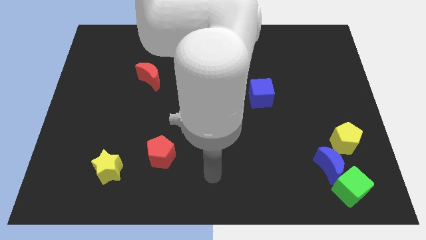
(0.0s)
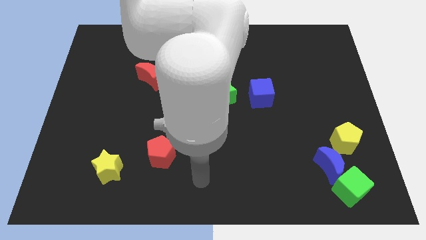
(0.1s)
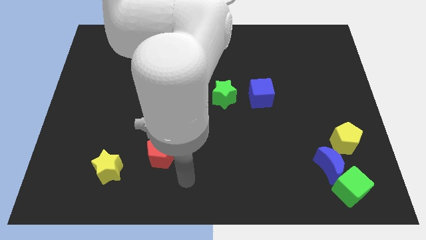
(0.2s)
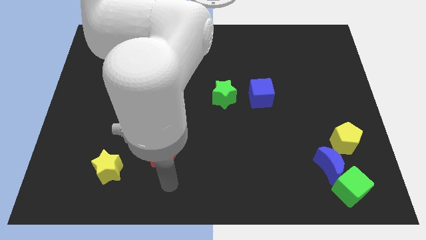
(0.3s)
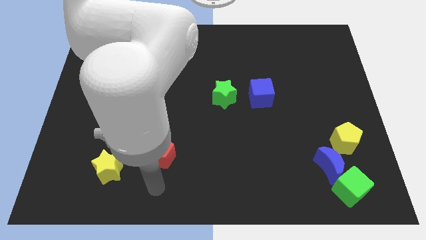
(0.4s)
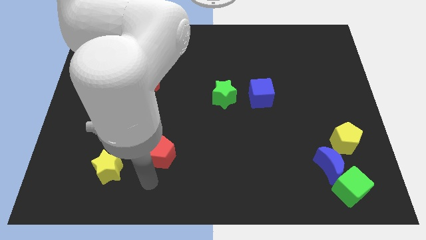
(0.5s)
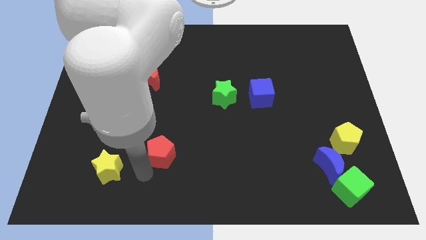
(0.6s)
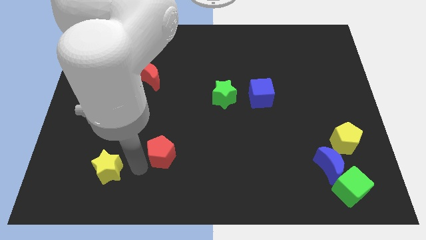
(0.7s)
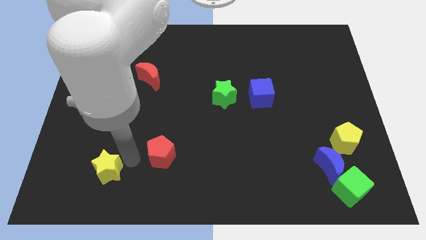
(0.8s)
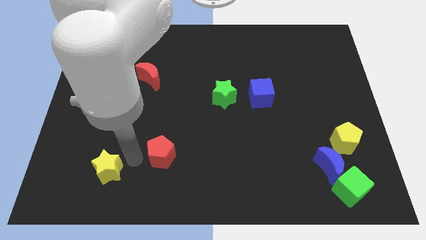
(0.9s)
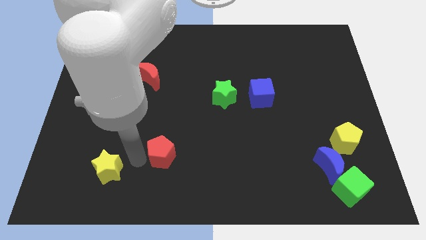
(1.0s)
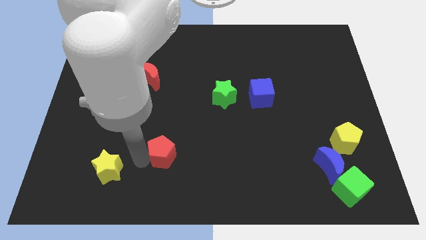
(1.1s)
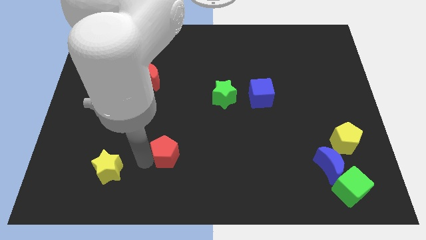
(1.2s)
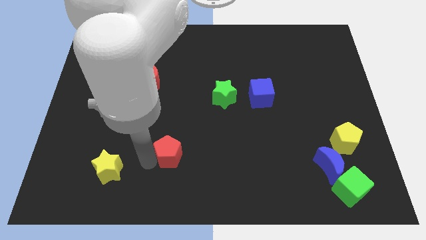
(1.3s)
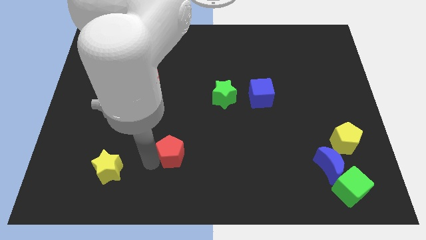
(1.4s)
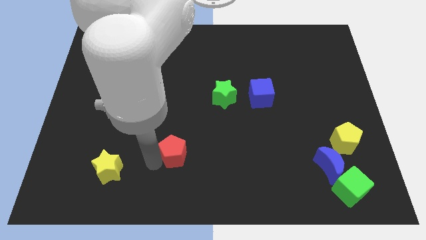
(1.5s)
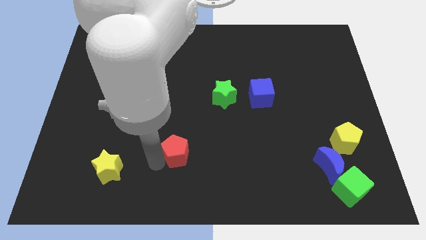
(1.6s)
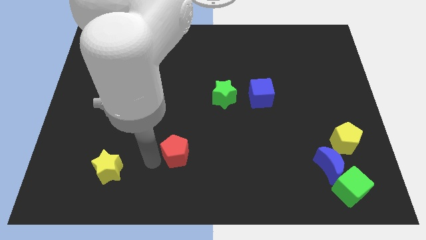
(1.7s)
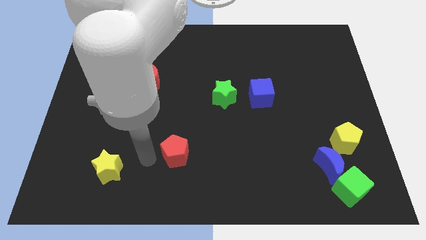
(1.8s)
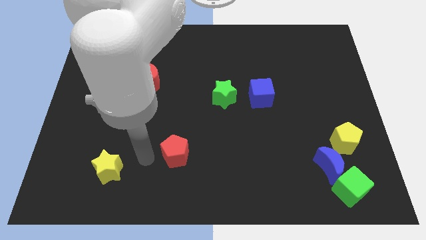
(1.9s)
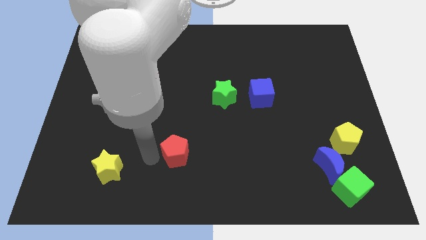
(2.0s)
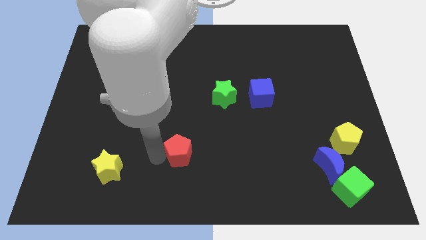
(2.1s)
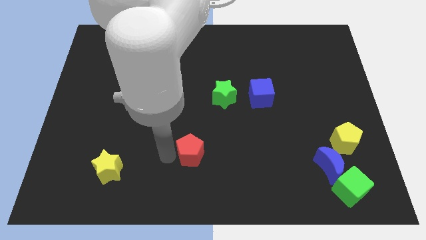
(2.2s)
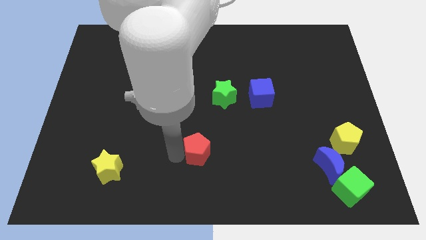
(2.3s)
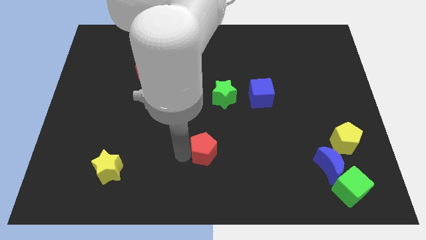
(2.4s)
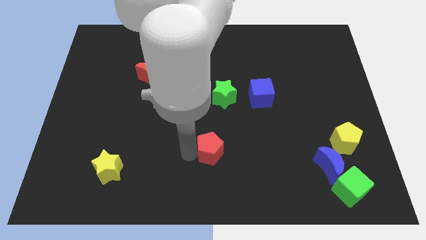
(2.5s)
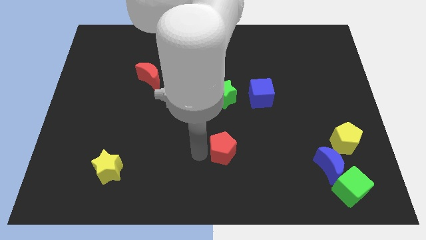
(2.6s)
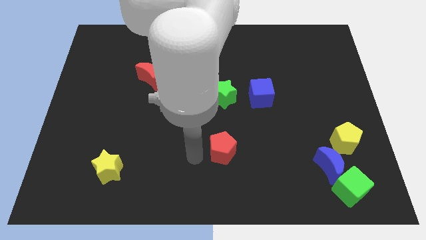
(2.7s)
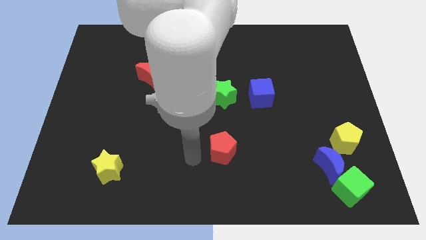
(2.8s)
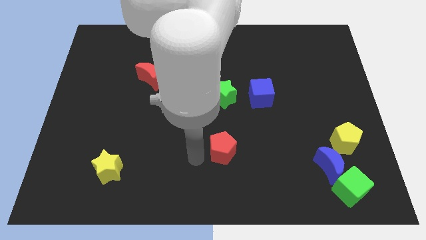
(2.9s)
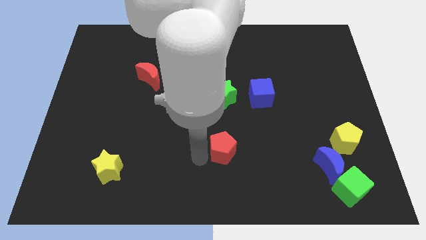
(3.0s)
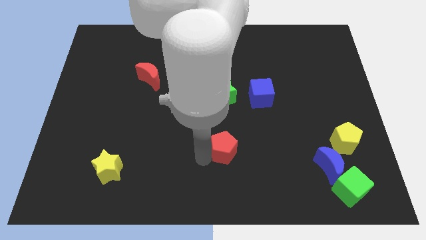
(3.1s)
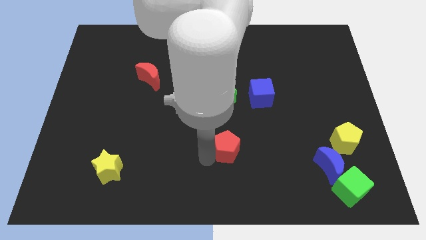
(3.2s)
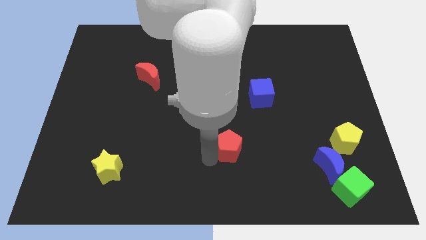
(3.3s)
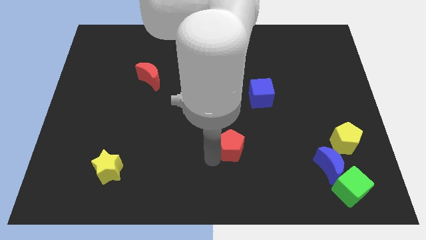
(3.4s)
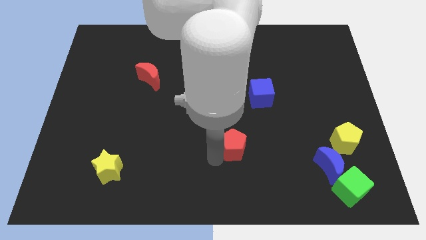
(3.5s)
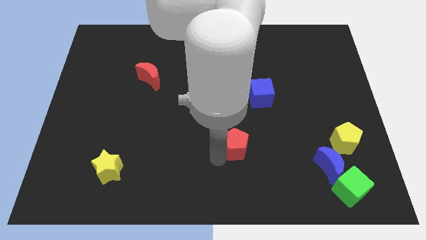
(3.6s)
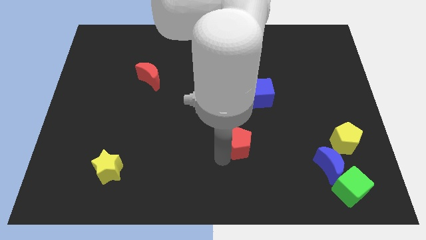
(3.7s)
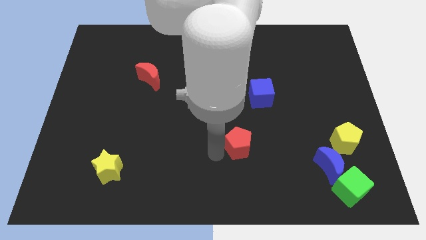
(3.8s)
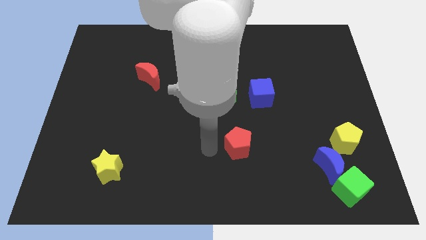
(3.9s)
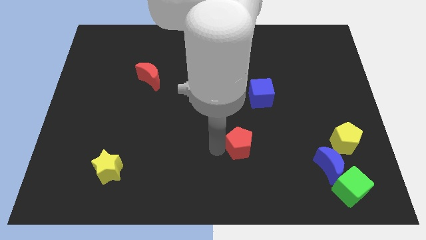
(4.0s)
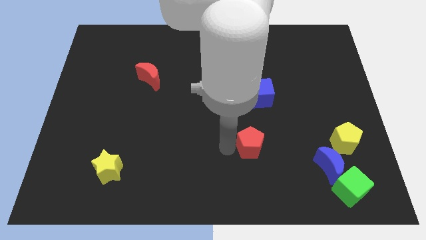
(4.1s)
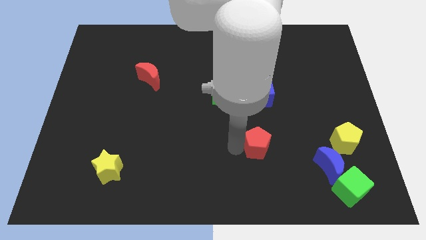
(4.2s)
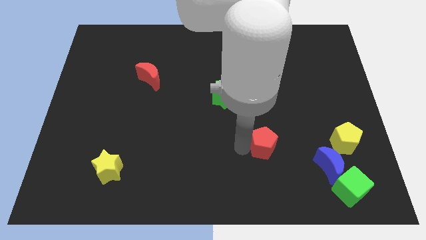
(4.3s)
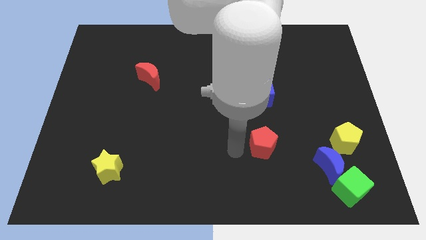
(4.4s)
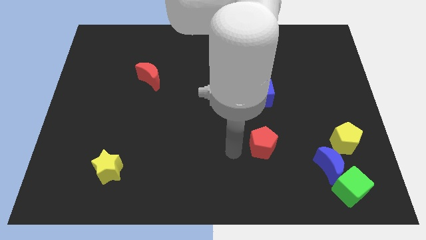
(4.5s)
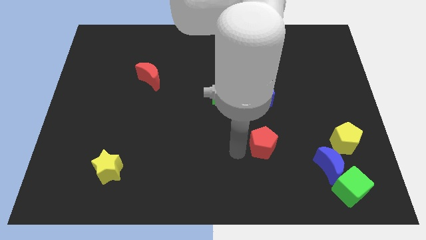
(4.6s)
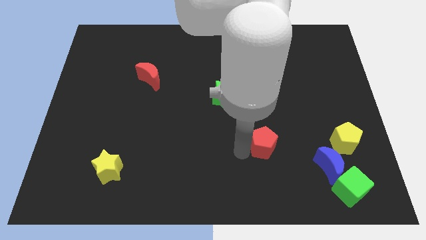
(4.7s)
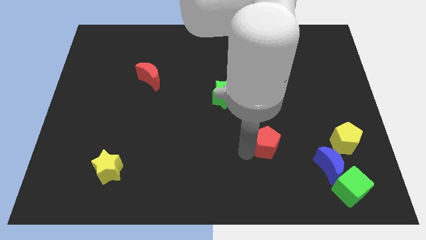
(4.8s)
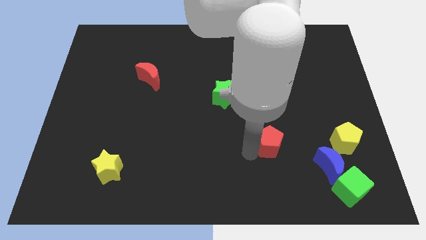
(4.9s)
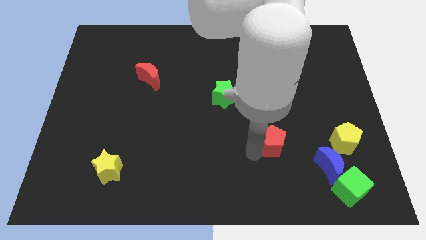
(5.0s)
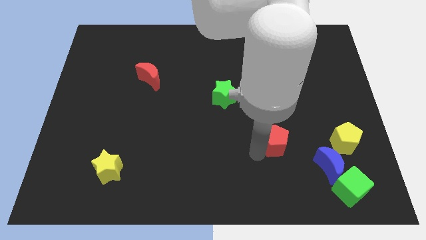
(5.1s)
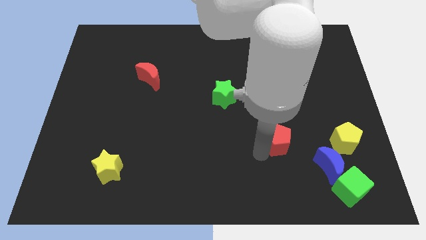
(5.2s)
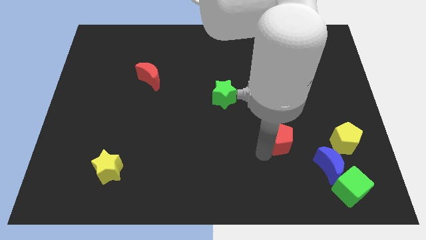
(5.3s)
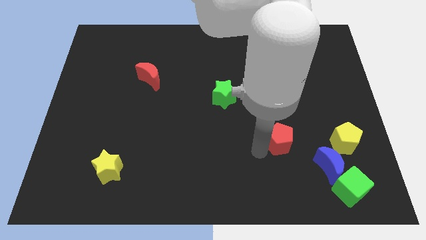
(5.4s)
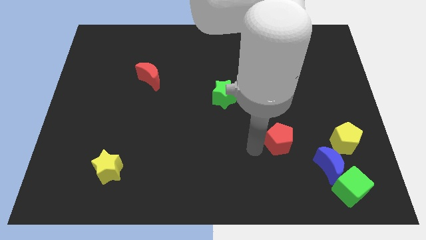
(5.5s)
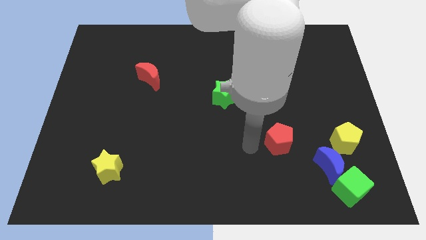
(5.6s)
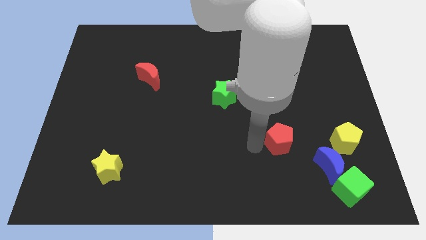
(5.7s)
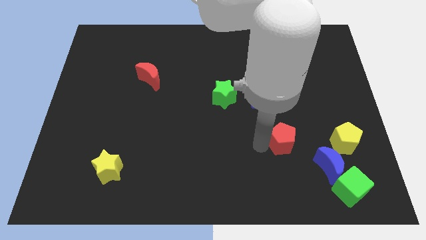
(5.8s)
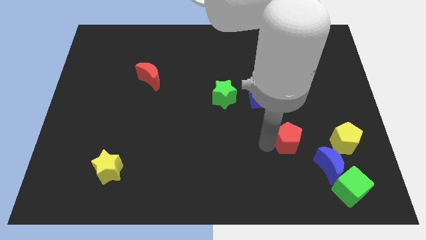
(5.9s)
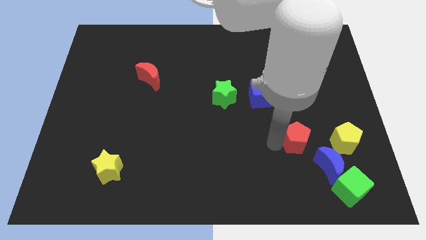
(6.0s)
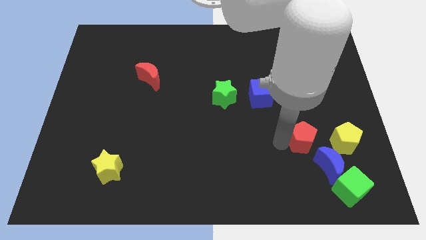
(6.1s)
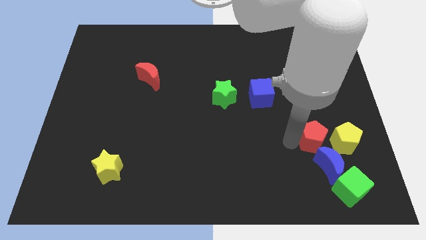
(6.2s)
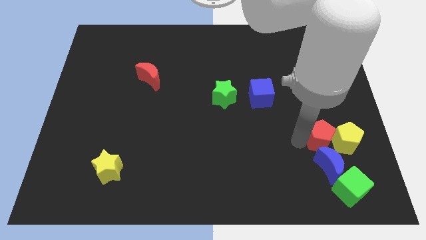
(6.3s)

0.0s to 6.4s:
slide the red pentagon to the yellow pentagon

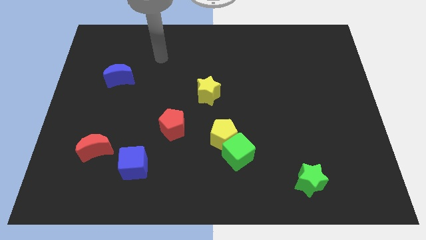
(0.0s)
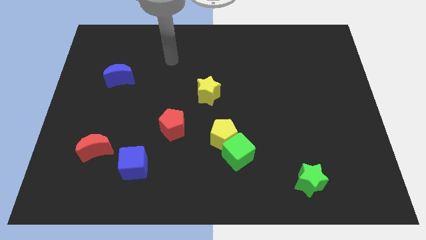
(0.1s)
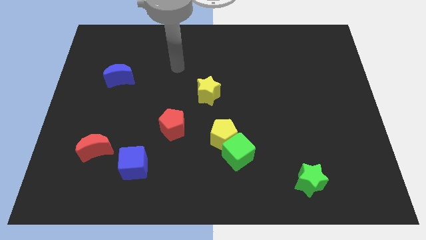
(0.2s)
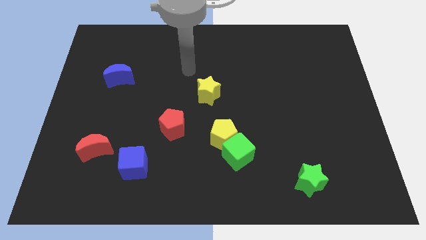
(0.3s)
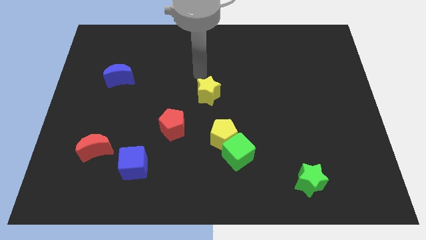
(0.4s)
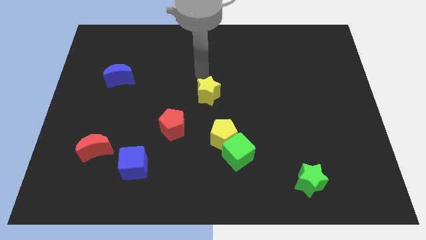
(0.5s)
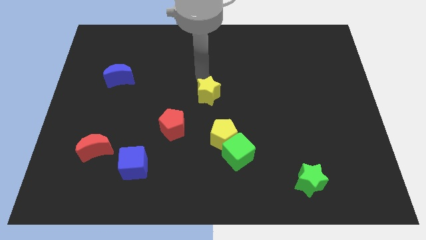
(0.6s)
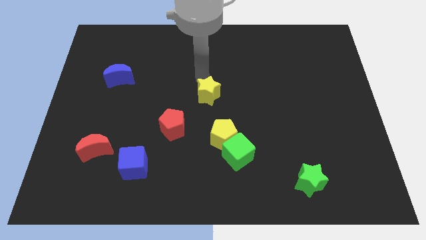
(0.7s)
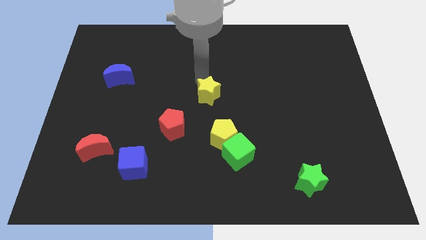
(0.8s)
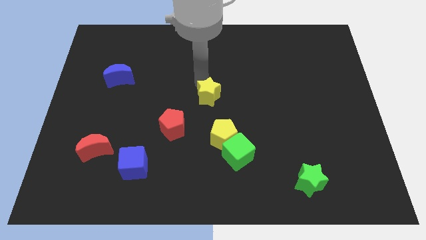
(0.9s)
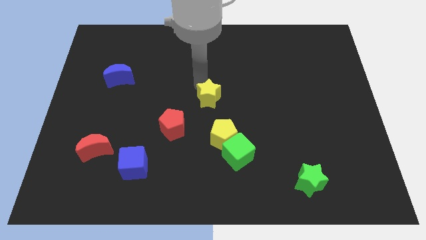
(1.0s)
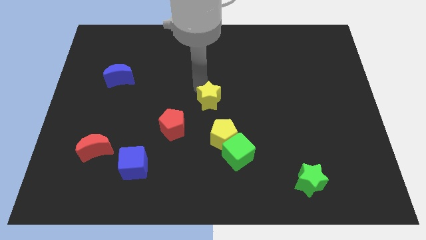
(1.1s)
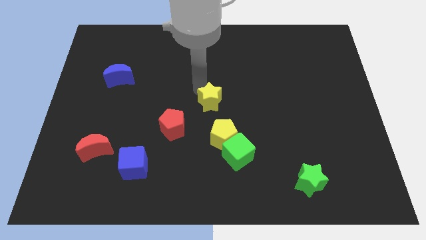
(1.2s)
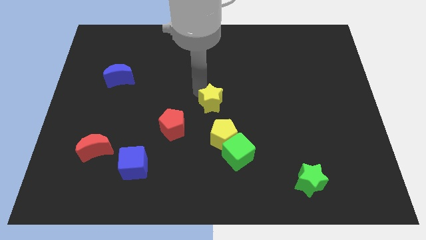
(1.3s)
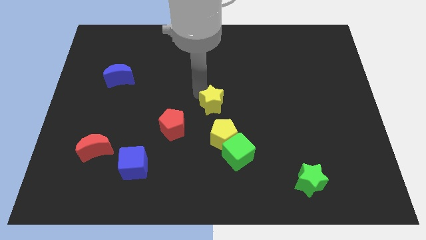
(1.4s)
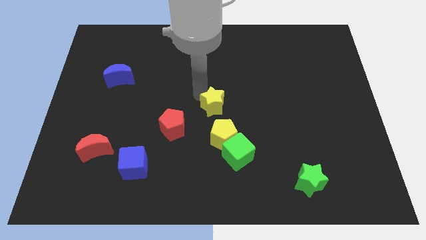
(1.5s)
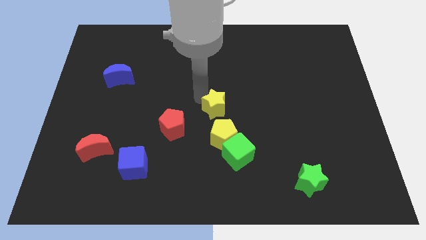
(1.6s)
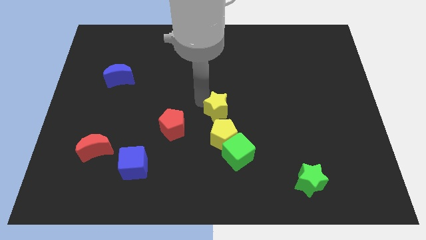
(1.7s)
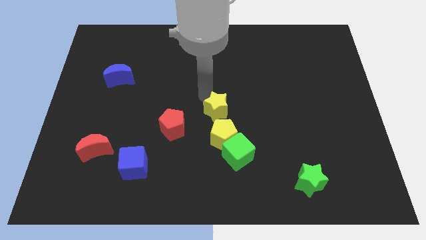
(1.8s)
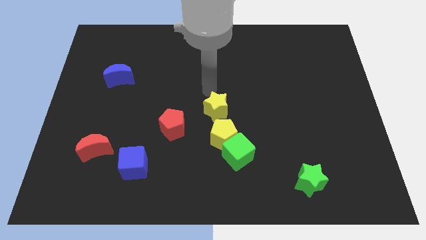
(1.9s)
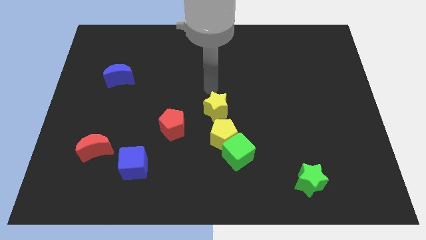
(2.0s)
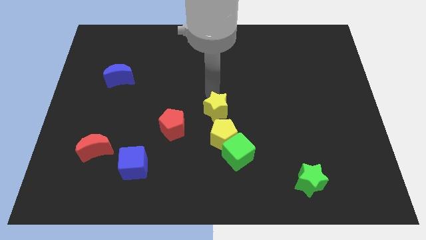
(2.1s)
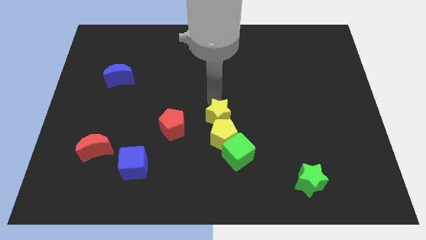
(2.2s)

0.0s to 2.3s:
push the yellow star towards the yellow pentagon
